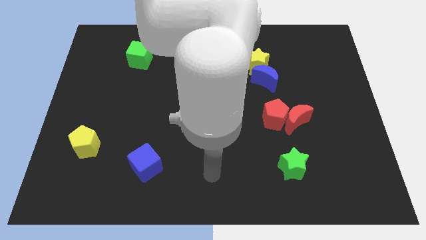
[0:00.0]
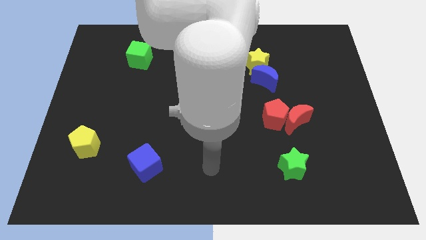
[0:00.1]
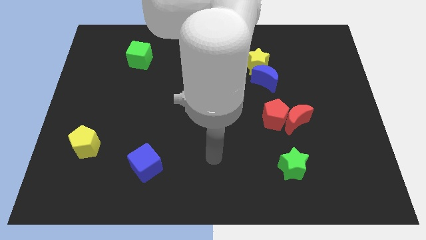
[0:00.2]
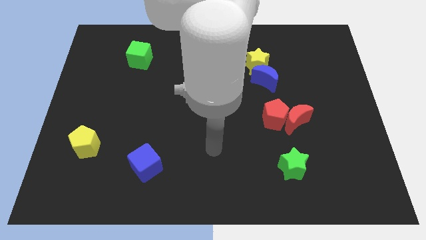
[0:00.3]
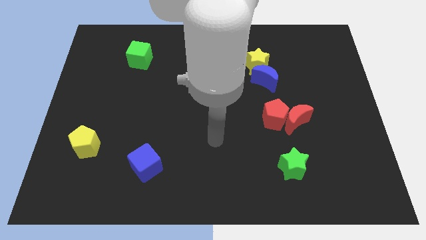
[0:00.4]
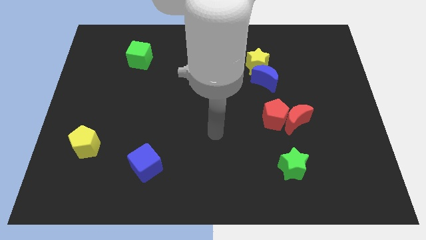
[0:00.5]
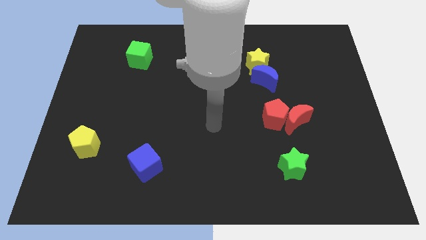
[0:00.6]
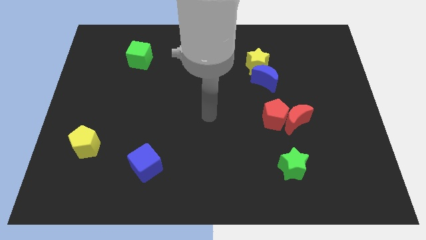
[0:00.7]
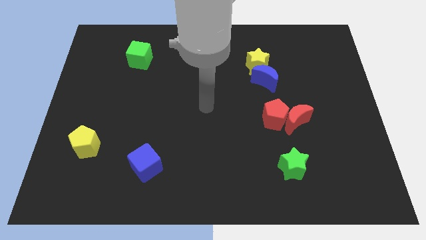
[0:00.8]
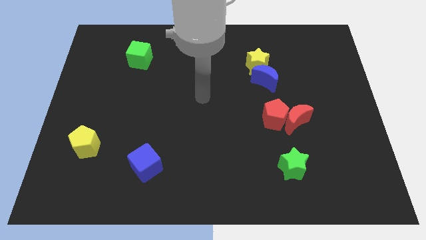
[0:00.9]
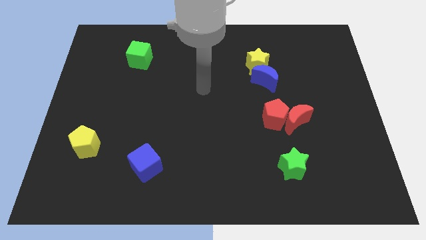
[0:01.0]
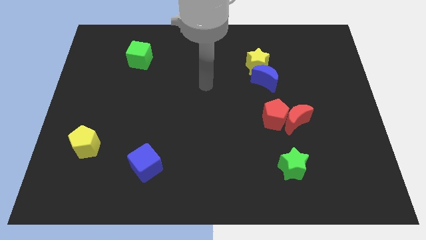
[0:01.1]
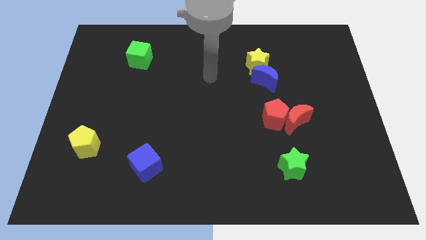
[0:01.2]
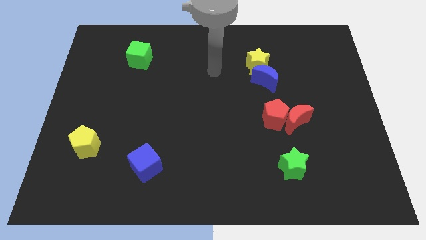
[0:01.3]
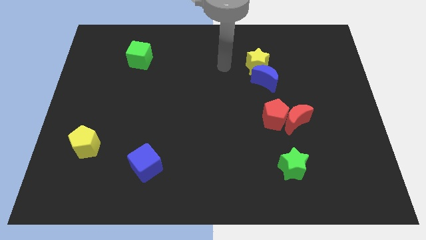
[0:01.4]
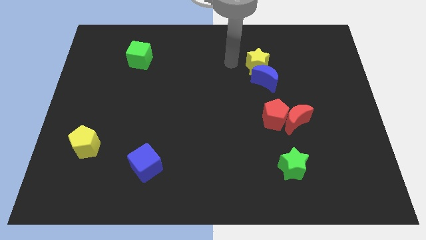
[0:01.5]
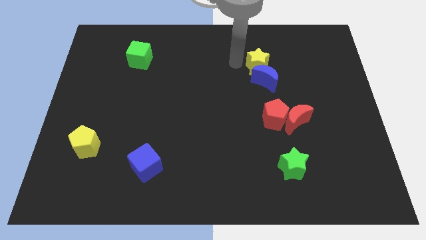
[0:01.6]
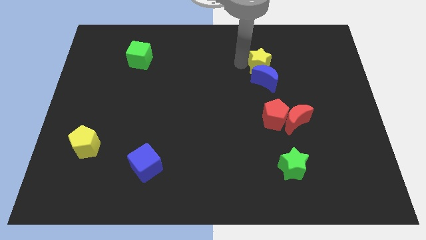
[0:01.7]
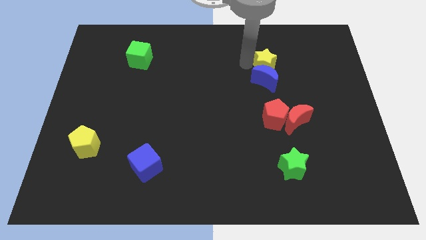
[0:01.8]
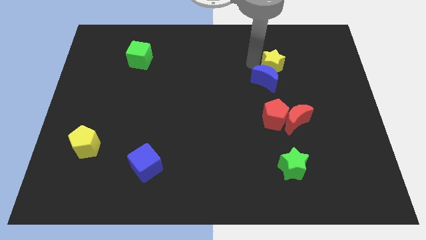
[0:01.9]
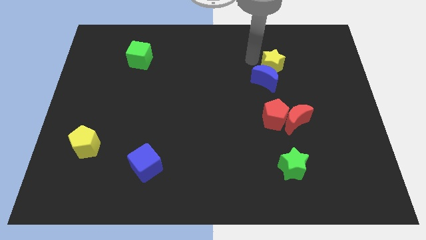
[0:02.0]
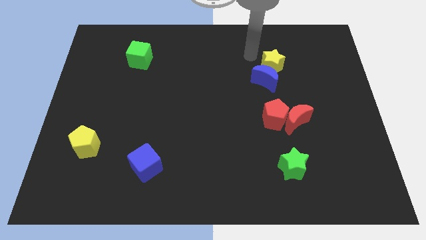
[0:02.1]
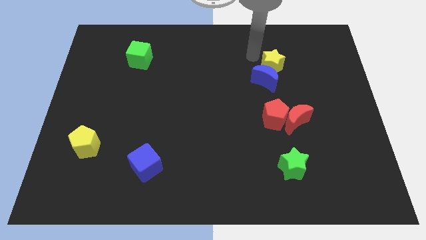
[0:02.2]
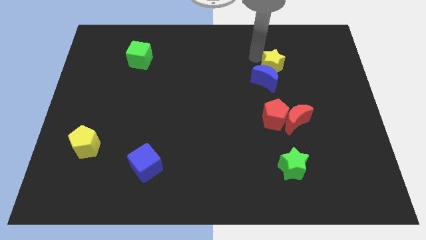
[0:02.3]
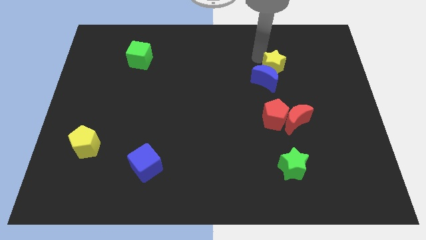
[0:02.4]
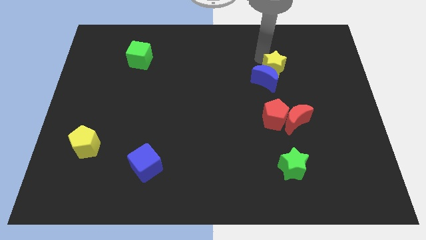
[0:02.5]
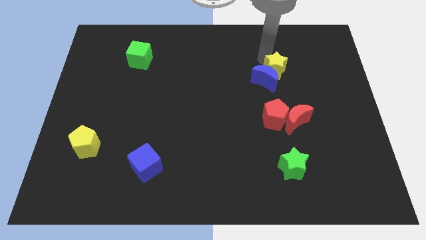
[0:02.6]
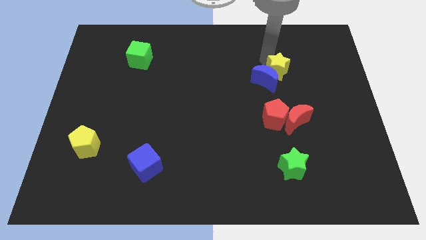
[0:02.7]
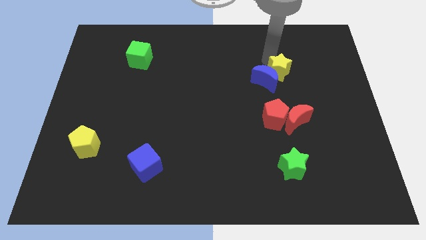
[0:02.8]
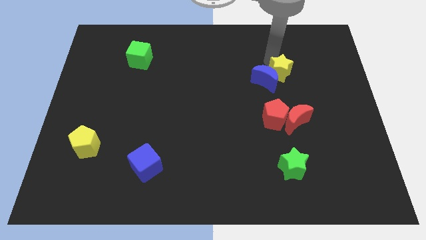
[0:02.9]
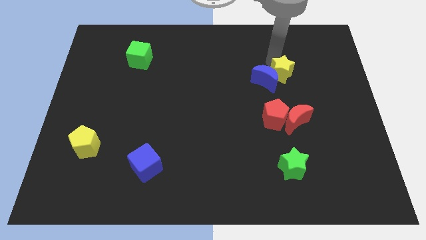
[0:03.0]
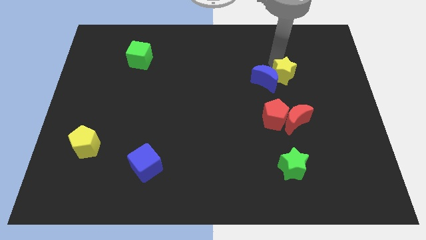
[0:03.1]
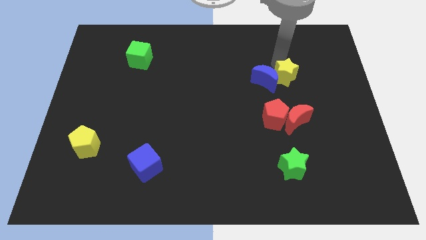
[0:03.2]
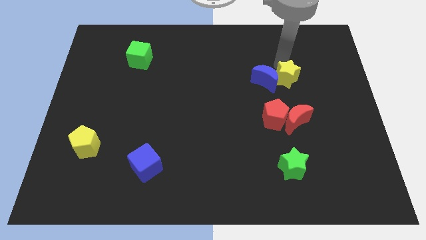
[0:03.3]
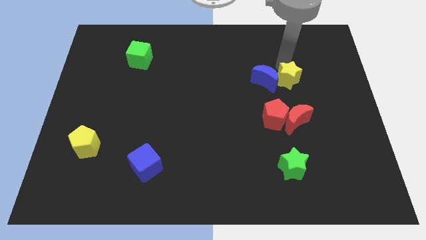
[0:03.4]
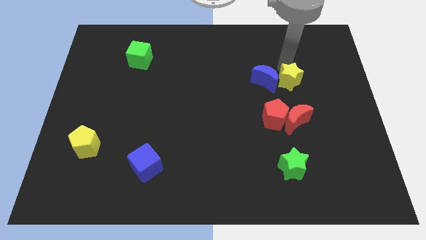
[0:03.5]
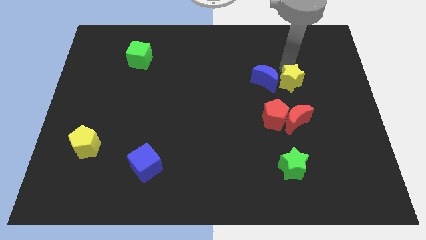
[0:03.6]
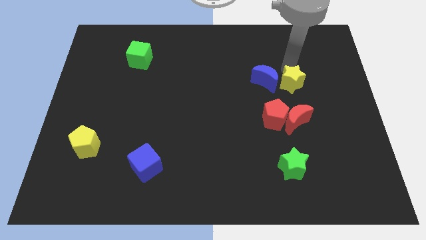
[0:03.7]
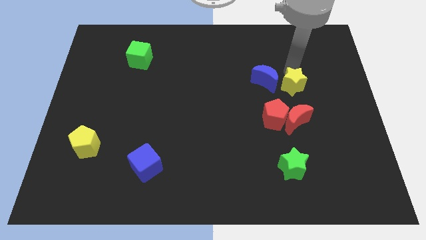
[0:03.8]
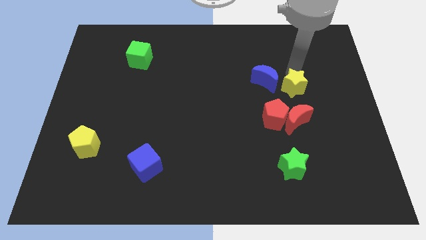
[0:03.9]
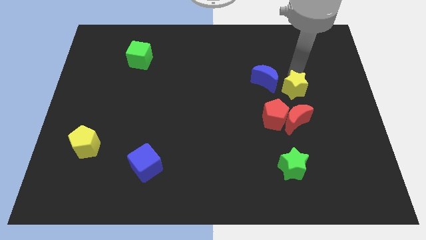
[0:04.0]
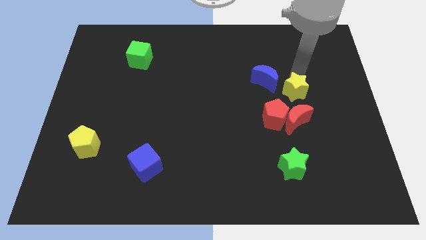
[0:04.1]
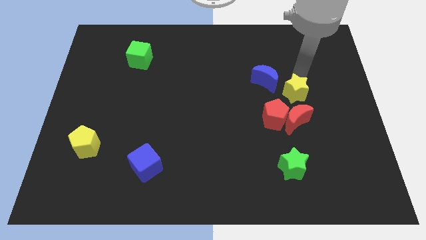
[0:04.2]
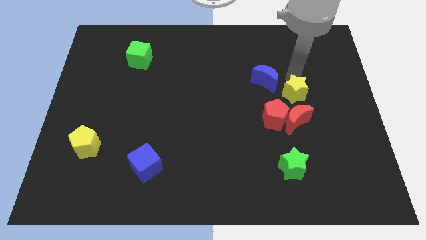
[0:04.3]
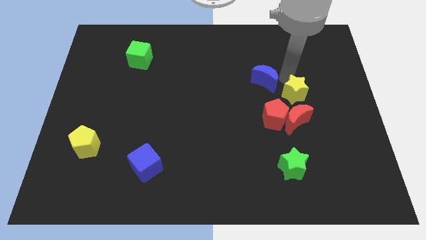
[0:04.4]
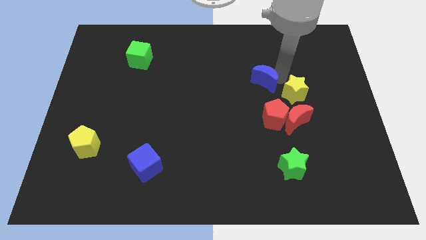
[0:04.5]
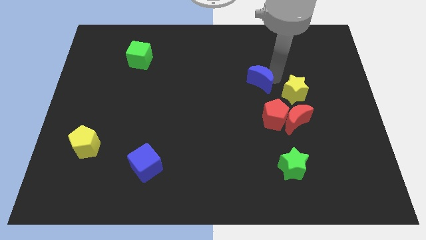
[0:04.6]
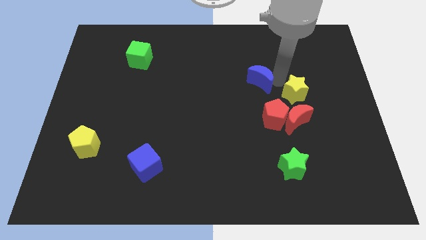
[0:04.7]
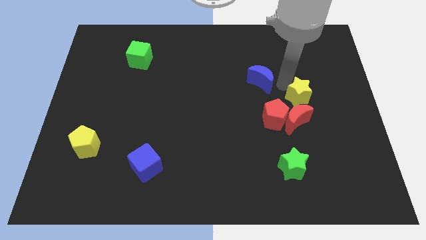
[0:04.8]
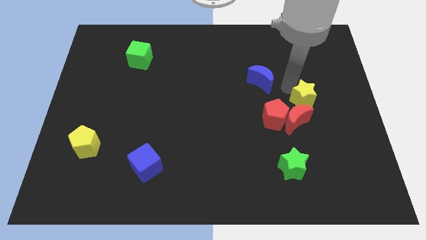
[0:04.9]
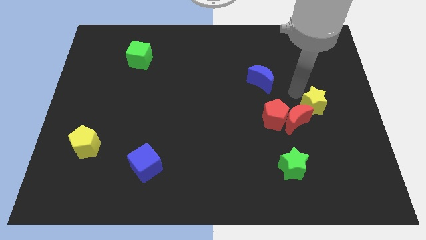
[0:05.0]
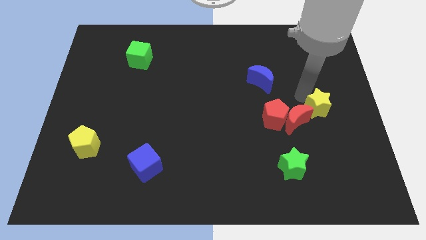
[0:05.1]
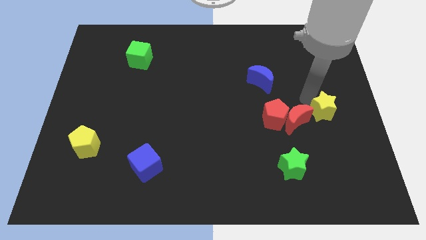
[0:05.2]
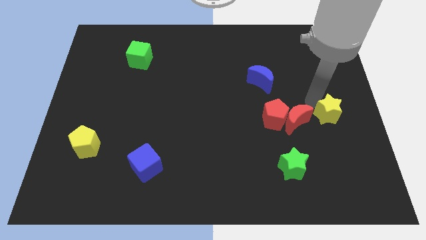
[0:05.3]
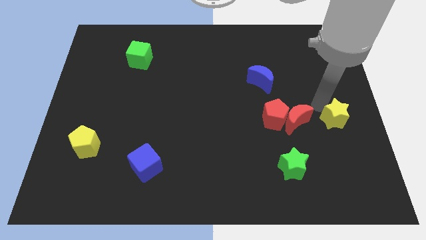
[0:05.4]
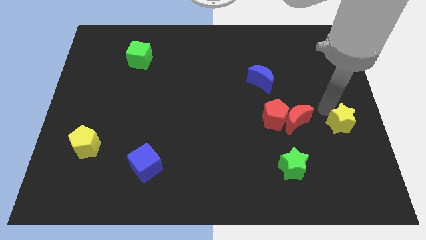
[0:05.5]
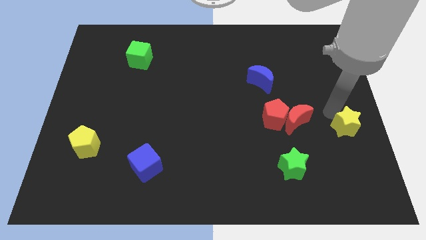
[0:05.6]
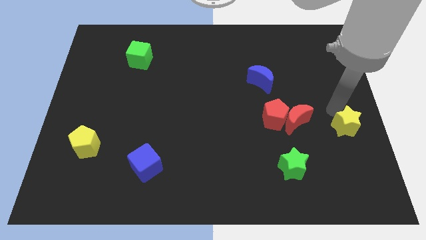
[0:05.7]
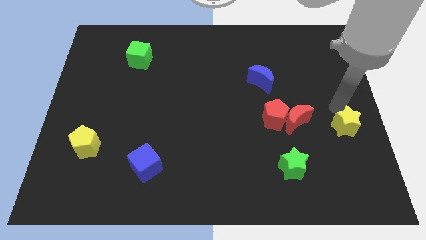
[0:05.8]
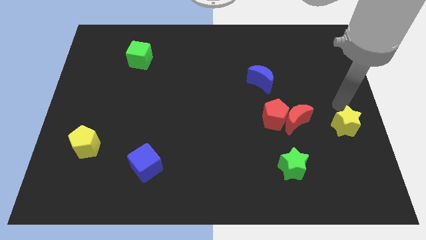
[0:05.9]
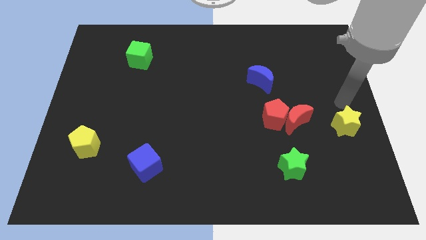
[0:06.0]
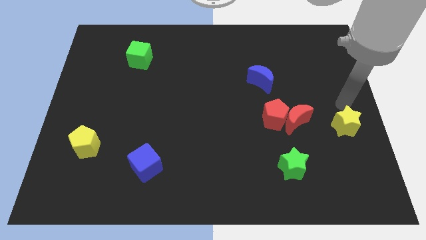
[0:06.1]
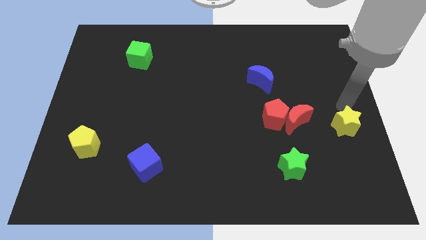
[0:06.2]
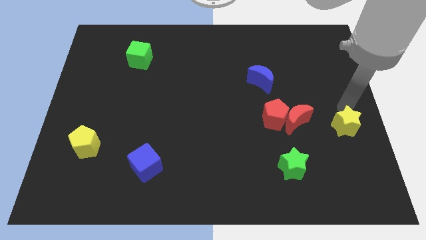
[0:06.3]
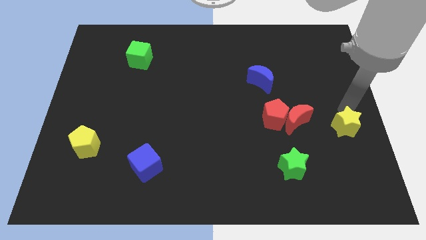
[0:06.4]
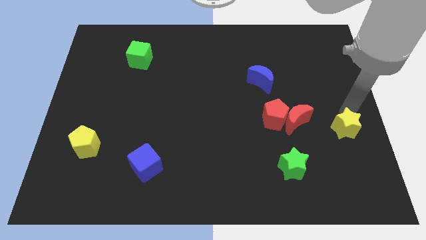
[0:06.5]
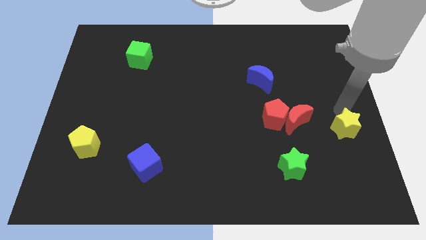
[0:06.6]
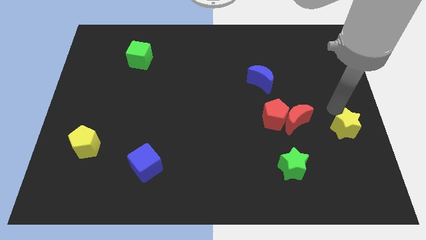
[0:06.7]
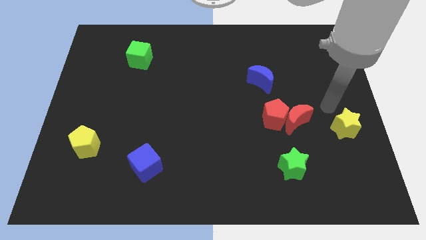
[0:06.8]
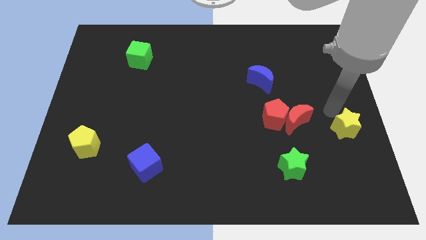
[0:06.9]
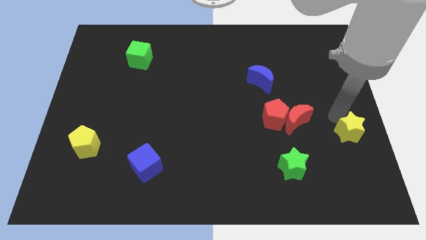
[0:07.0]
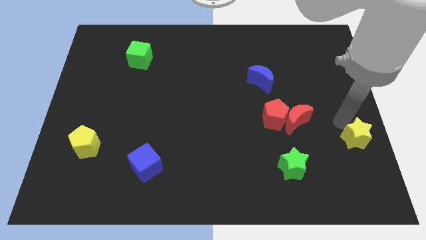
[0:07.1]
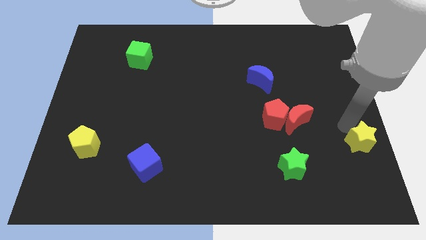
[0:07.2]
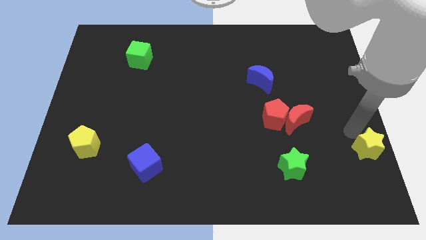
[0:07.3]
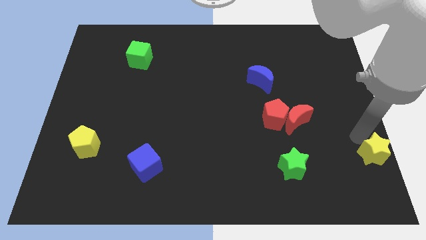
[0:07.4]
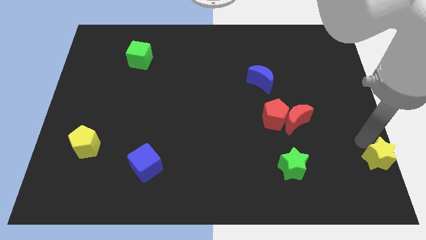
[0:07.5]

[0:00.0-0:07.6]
move the yellow star to the bottom right
